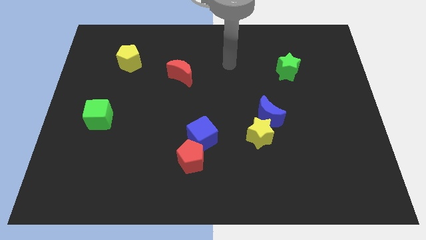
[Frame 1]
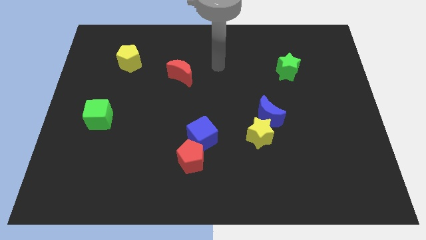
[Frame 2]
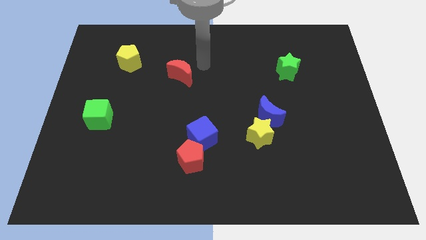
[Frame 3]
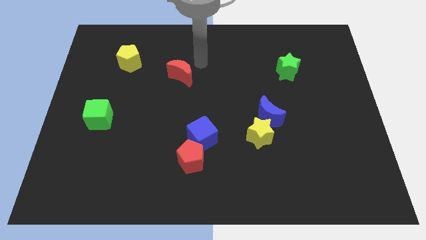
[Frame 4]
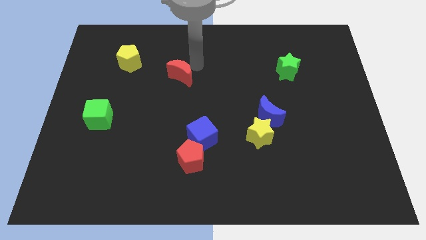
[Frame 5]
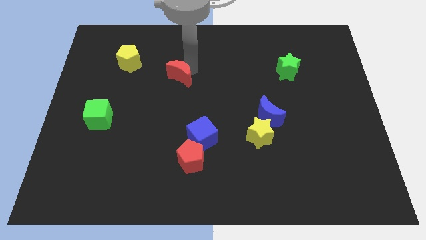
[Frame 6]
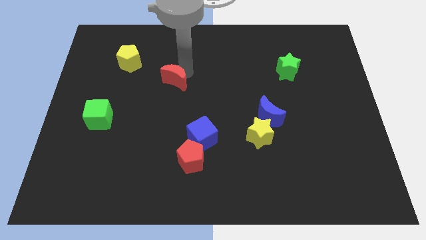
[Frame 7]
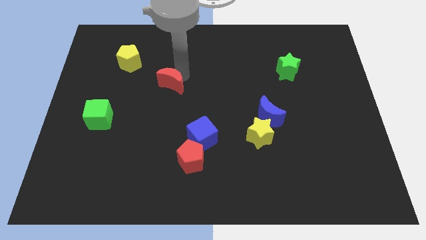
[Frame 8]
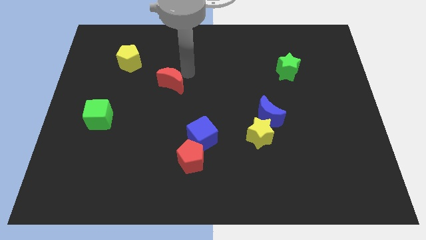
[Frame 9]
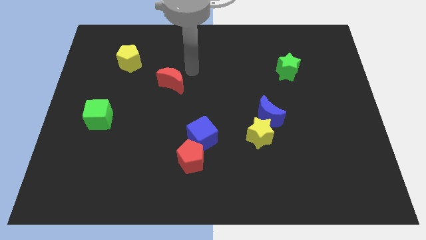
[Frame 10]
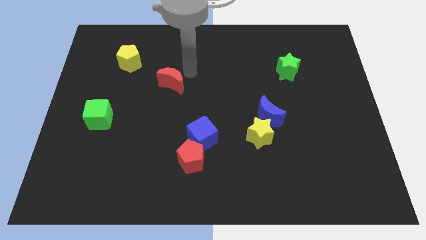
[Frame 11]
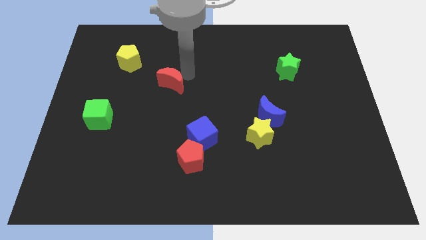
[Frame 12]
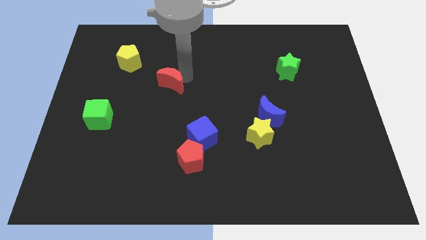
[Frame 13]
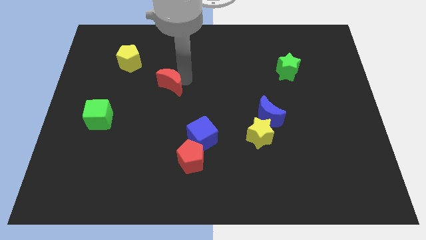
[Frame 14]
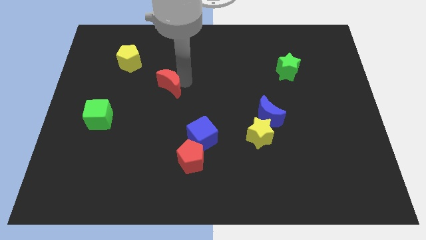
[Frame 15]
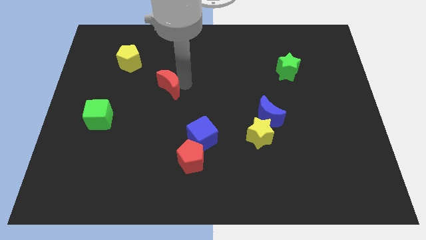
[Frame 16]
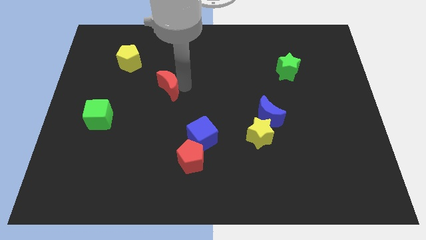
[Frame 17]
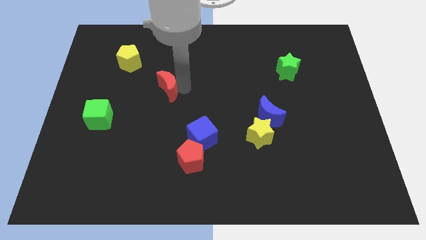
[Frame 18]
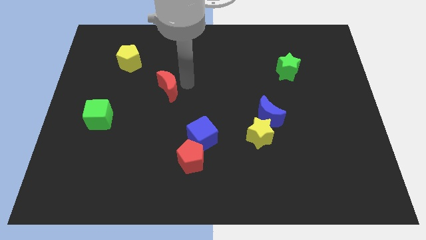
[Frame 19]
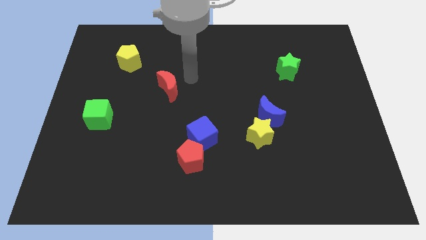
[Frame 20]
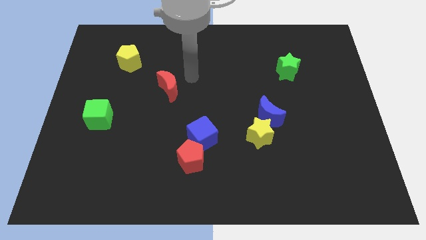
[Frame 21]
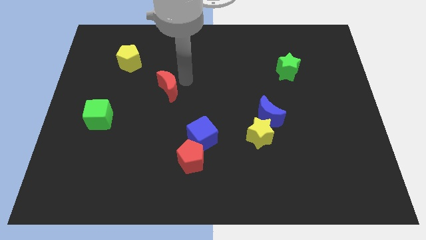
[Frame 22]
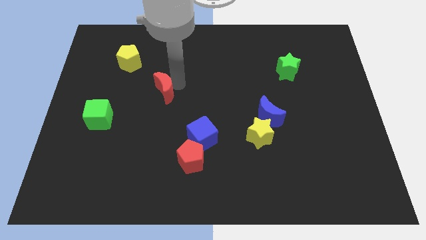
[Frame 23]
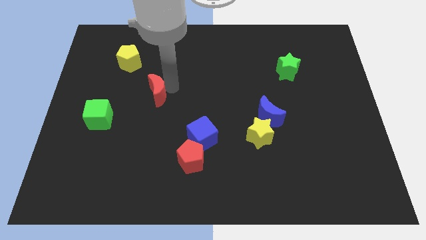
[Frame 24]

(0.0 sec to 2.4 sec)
move the red moon somewhat down and then to the left

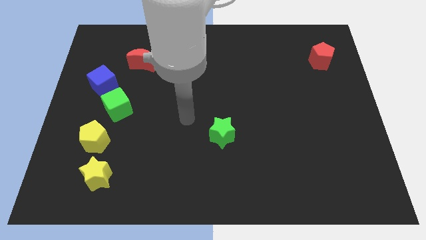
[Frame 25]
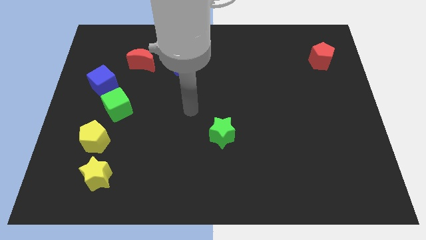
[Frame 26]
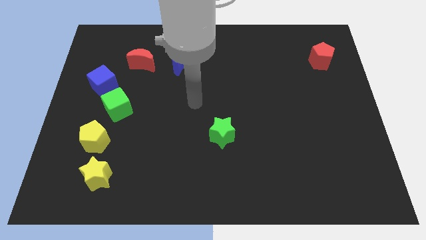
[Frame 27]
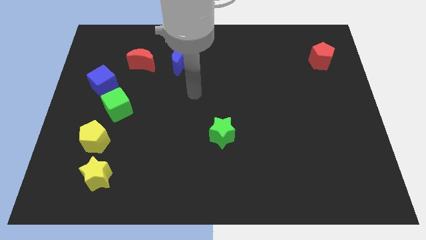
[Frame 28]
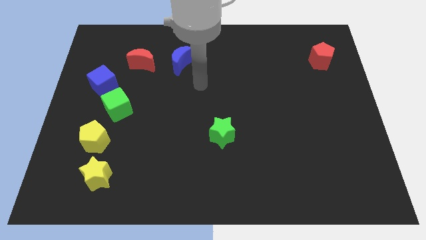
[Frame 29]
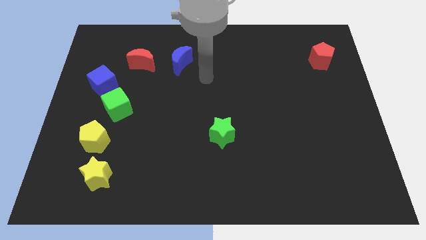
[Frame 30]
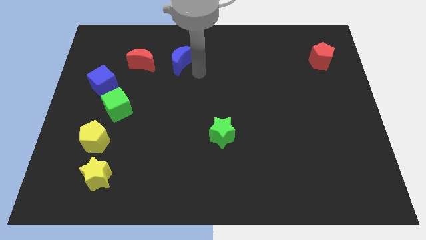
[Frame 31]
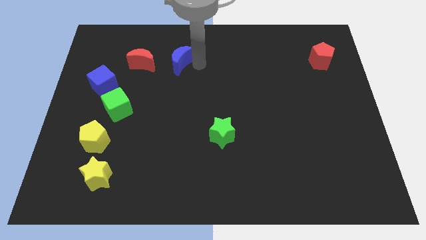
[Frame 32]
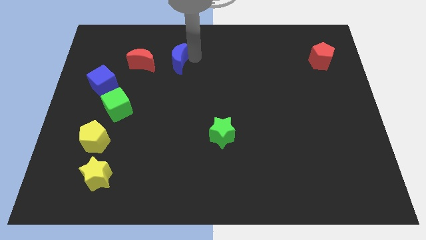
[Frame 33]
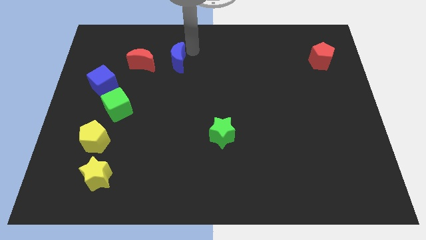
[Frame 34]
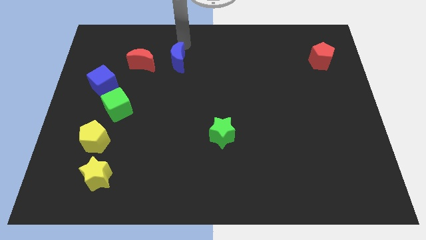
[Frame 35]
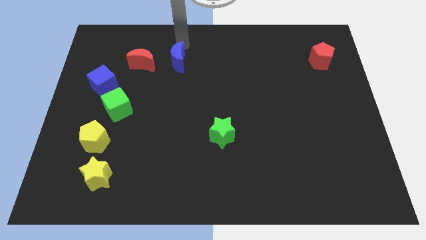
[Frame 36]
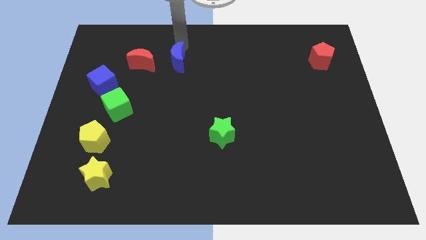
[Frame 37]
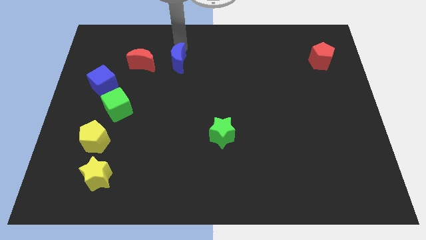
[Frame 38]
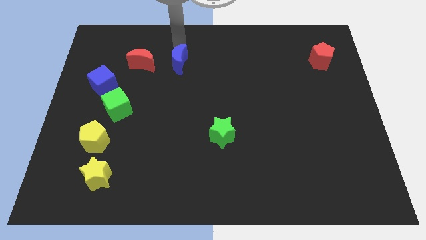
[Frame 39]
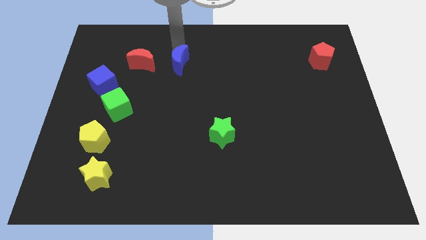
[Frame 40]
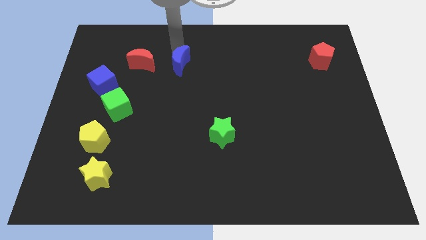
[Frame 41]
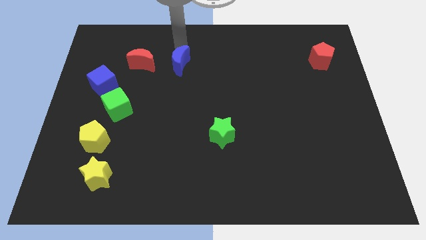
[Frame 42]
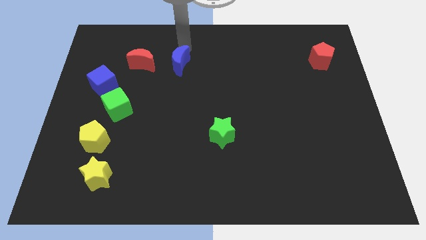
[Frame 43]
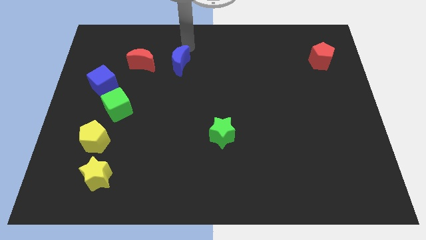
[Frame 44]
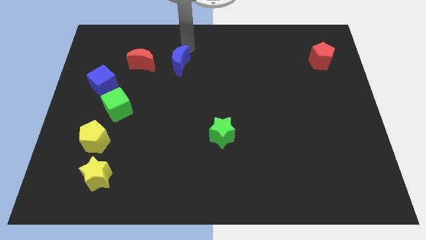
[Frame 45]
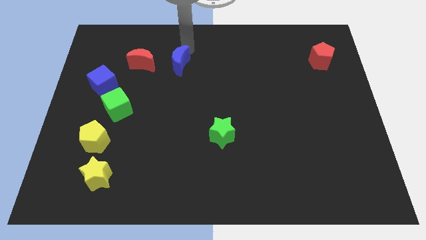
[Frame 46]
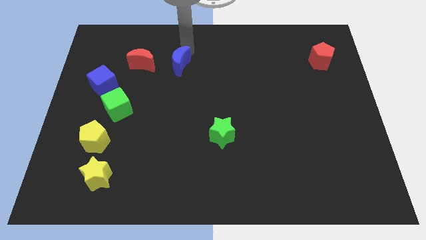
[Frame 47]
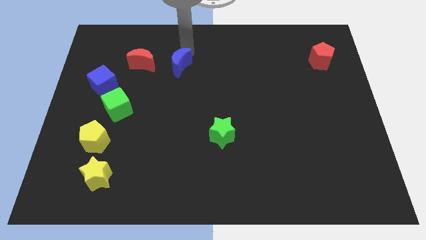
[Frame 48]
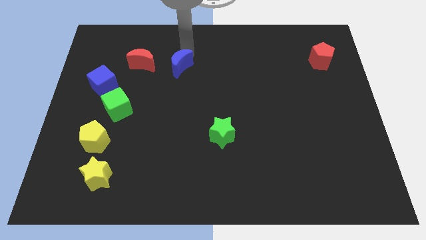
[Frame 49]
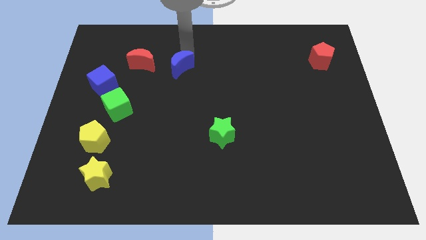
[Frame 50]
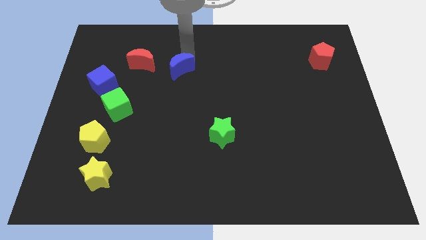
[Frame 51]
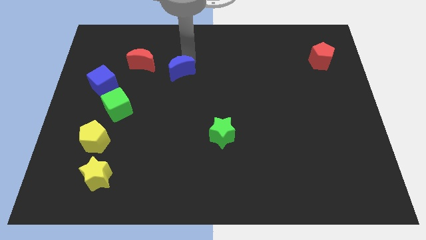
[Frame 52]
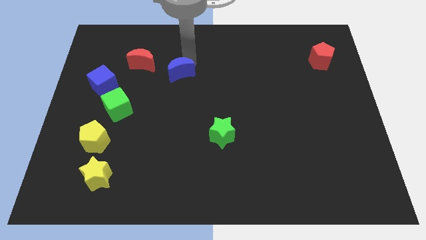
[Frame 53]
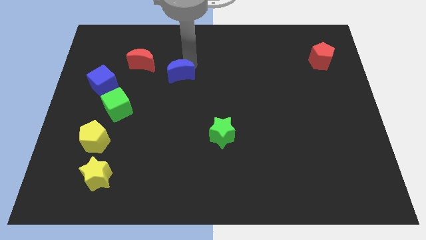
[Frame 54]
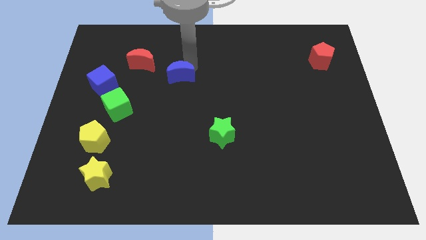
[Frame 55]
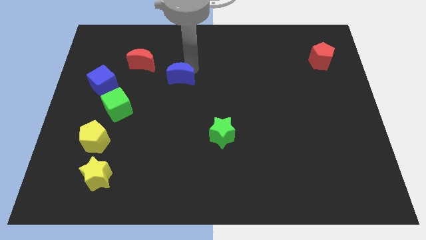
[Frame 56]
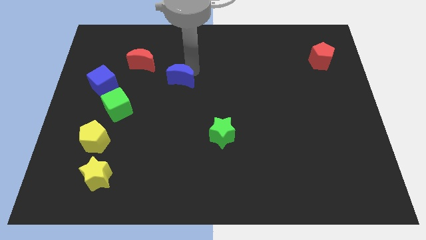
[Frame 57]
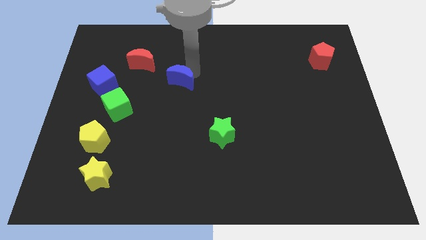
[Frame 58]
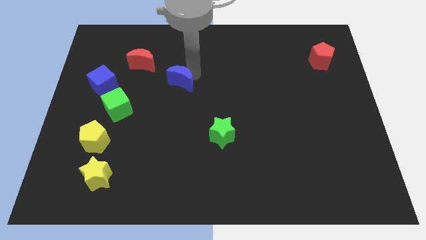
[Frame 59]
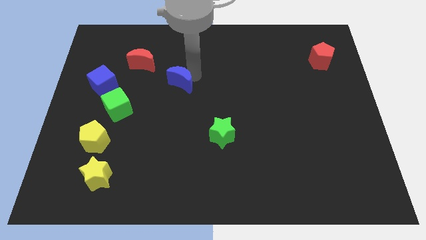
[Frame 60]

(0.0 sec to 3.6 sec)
slide the blue moon a bit downwards

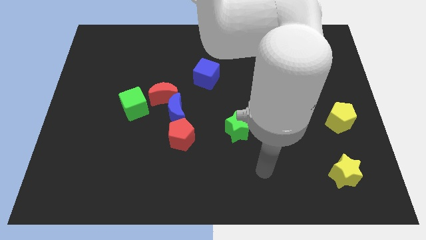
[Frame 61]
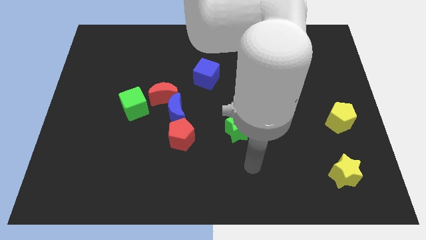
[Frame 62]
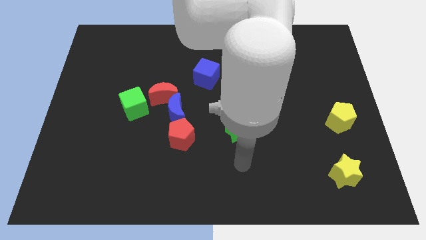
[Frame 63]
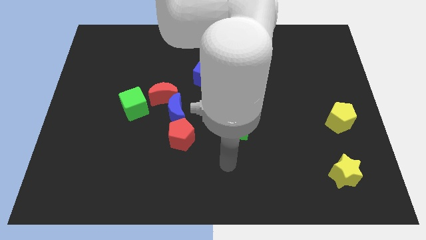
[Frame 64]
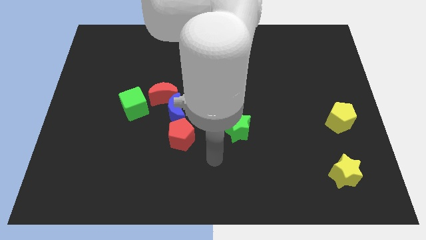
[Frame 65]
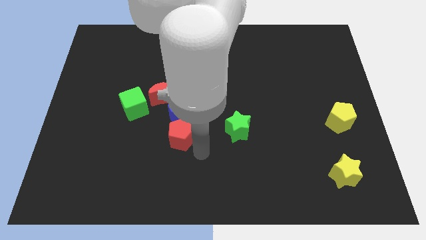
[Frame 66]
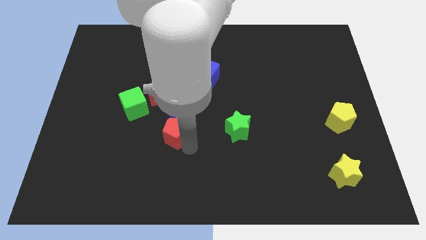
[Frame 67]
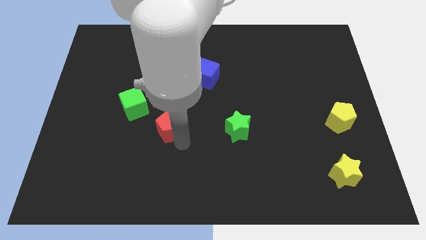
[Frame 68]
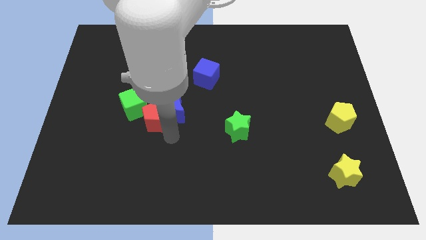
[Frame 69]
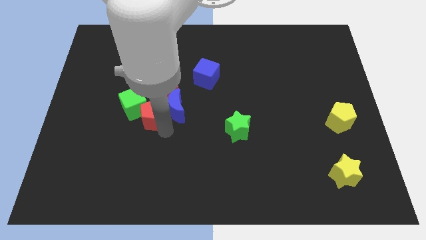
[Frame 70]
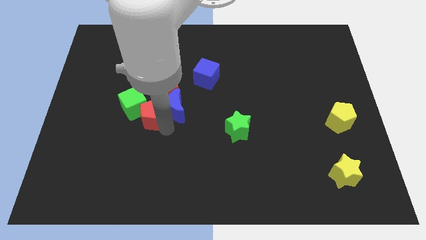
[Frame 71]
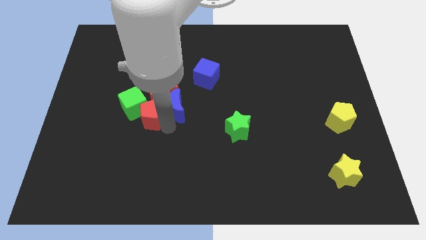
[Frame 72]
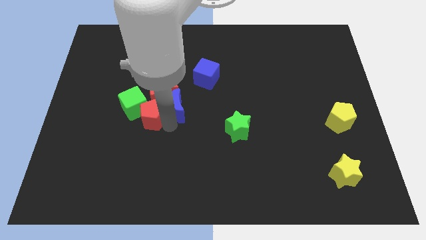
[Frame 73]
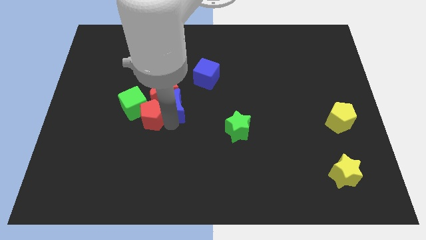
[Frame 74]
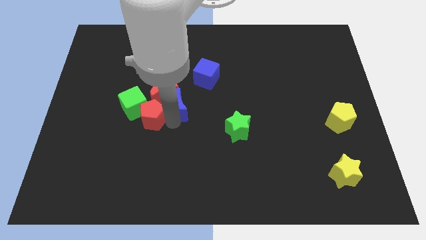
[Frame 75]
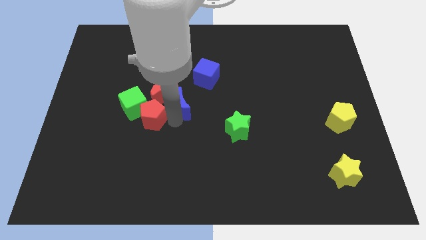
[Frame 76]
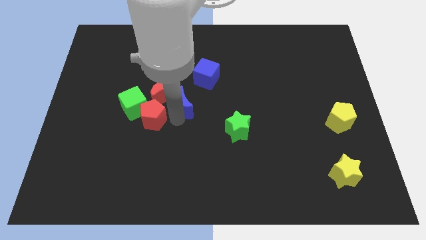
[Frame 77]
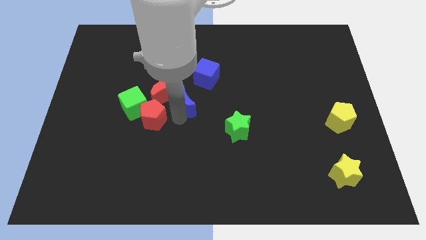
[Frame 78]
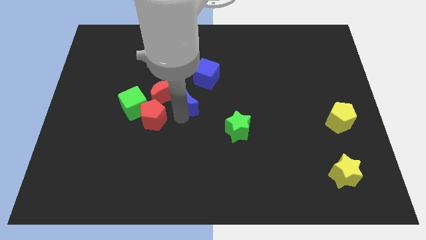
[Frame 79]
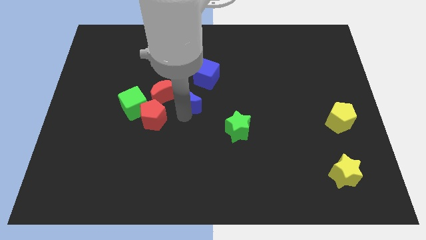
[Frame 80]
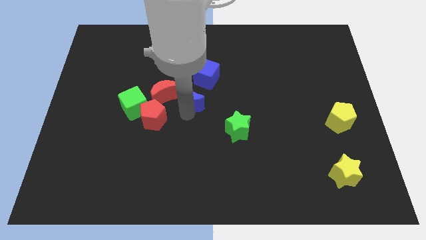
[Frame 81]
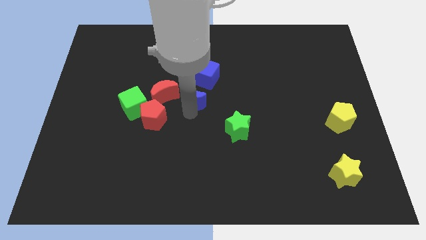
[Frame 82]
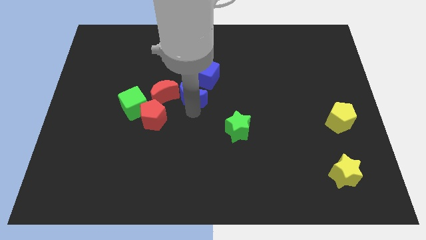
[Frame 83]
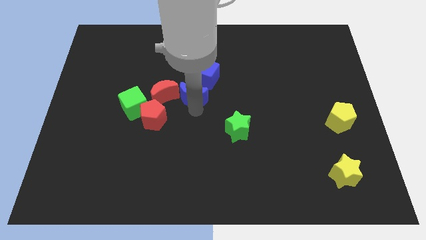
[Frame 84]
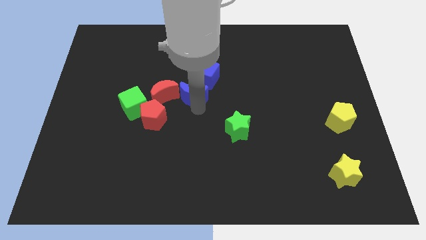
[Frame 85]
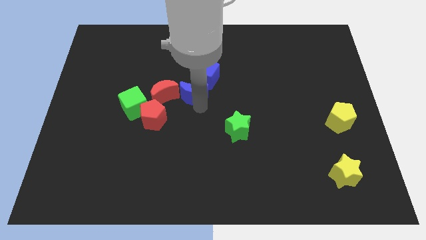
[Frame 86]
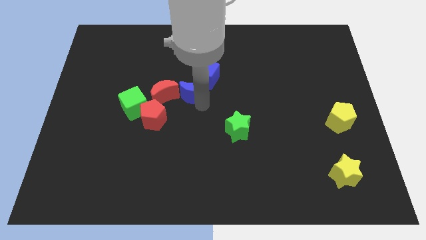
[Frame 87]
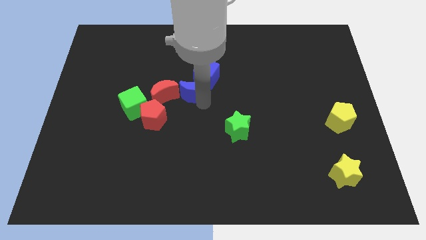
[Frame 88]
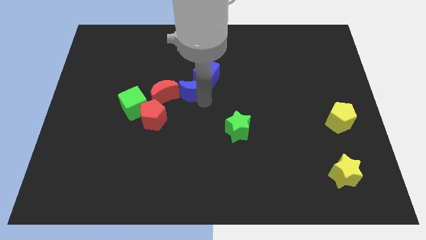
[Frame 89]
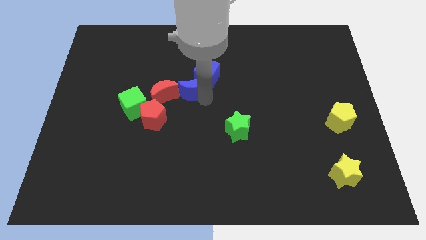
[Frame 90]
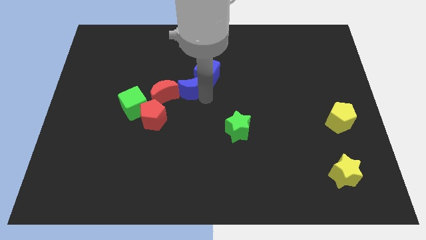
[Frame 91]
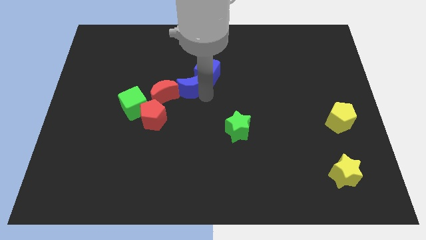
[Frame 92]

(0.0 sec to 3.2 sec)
push the blue moon a little bit up
